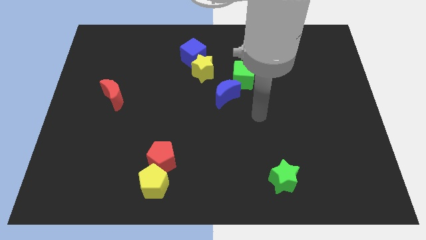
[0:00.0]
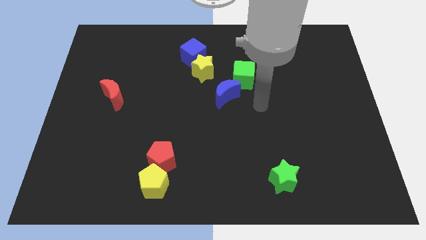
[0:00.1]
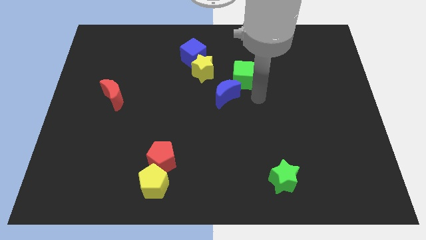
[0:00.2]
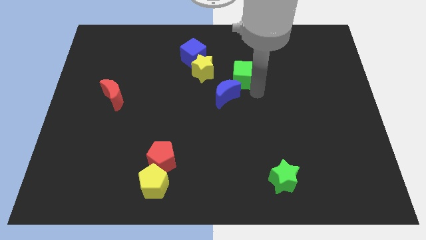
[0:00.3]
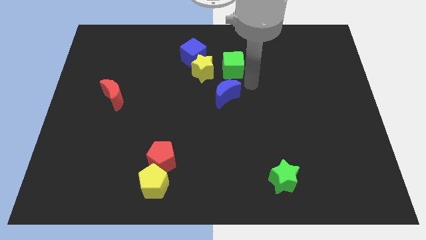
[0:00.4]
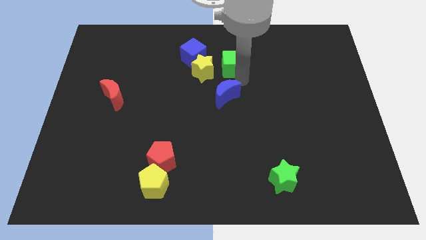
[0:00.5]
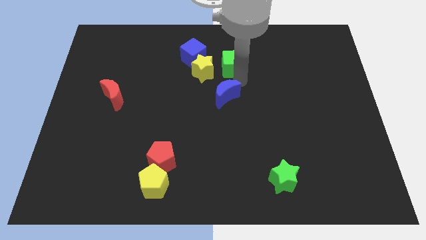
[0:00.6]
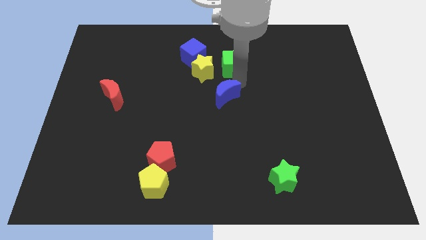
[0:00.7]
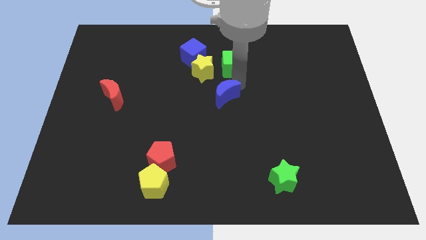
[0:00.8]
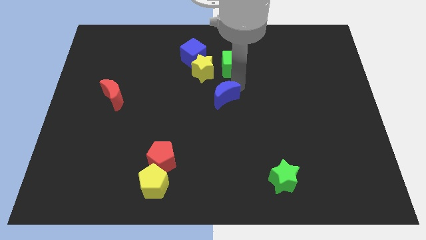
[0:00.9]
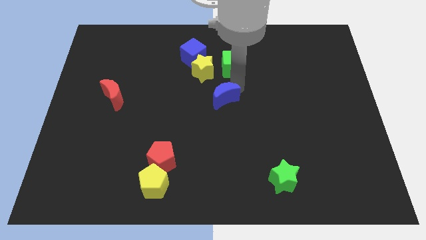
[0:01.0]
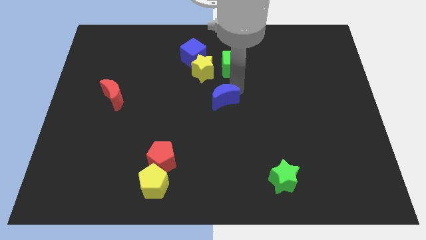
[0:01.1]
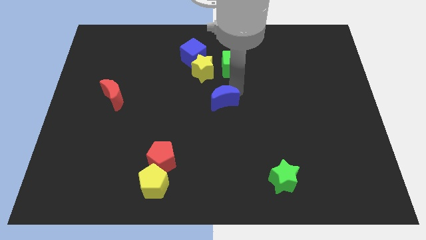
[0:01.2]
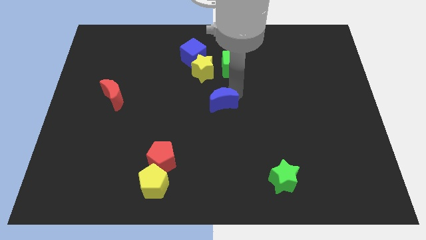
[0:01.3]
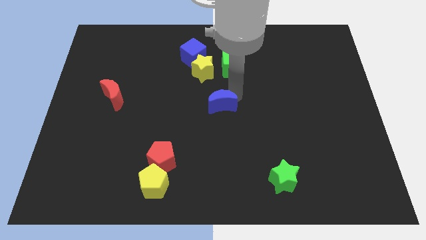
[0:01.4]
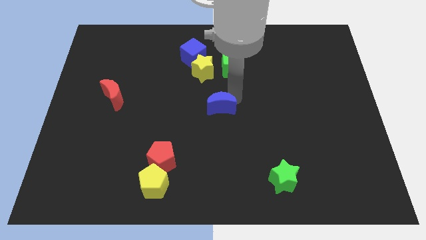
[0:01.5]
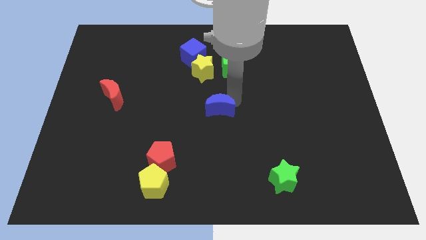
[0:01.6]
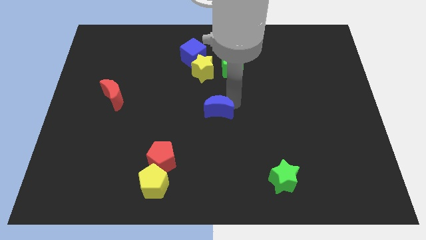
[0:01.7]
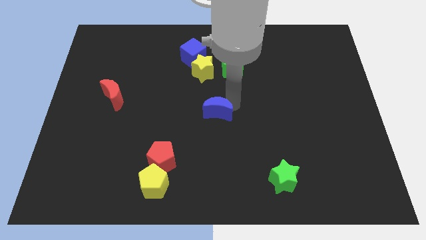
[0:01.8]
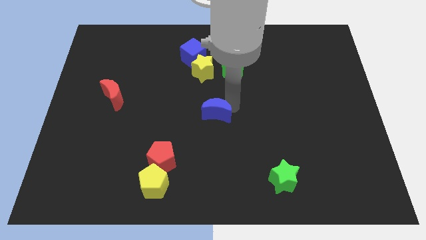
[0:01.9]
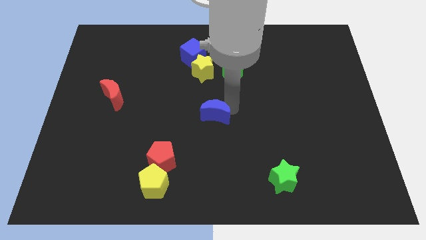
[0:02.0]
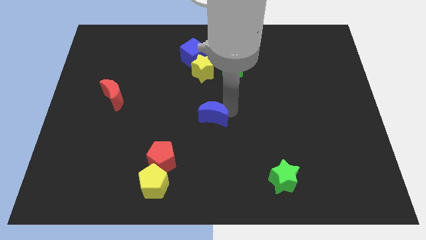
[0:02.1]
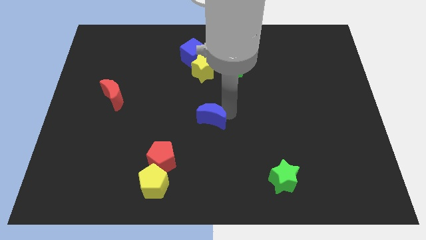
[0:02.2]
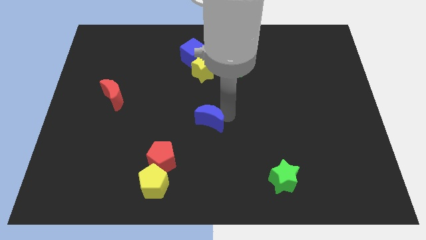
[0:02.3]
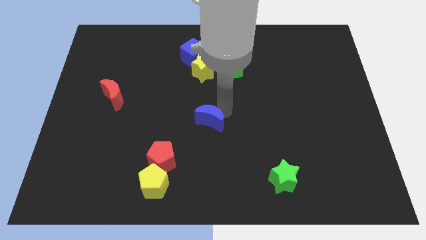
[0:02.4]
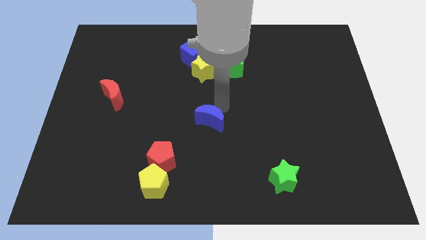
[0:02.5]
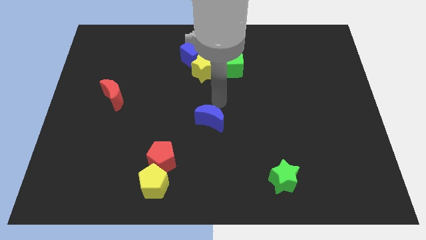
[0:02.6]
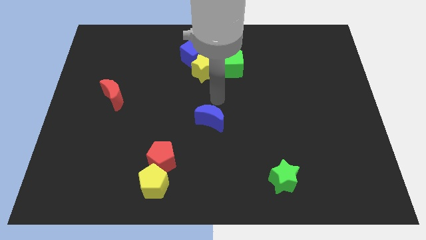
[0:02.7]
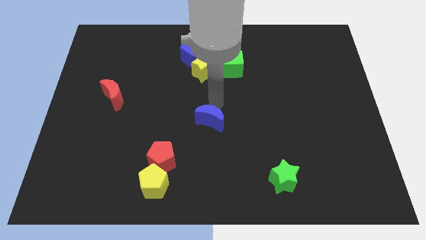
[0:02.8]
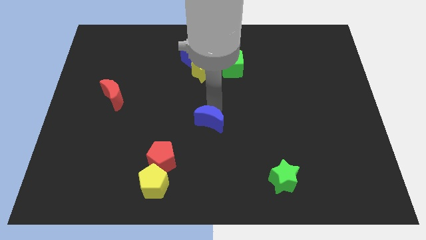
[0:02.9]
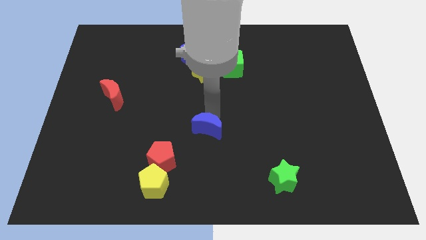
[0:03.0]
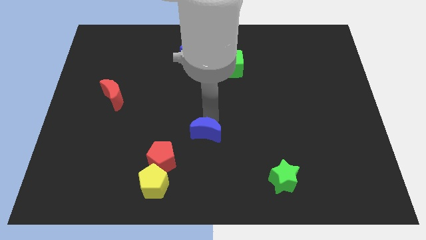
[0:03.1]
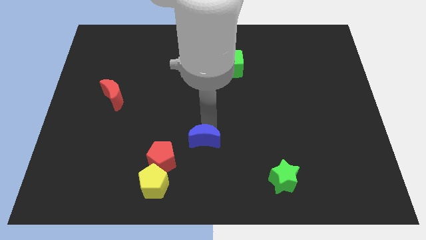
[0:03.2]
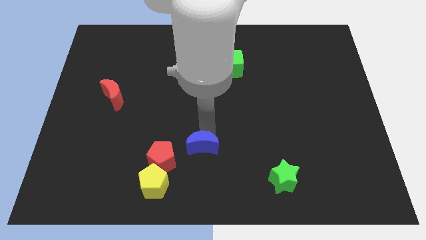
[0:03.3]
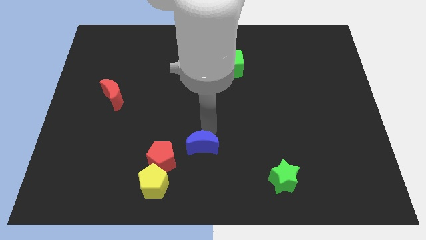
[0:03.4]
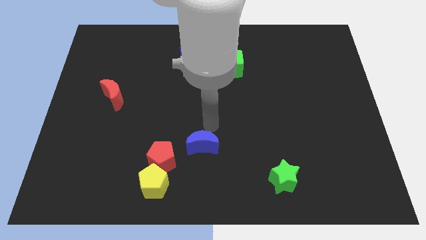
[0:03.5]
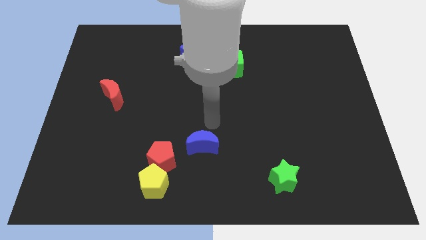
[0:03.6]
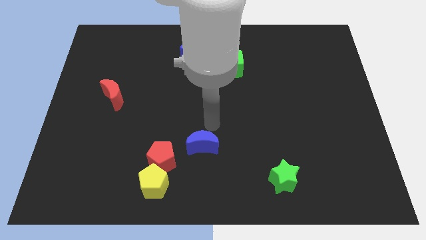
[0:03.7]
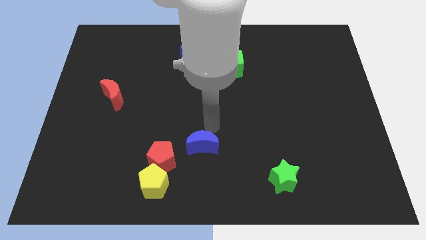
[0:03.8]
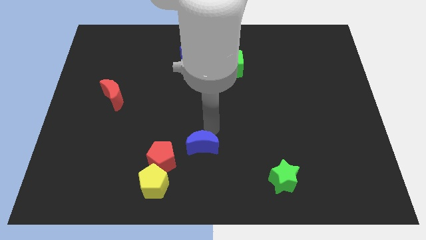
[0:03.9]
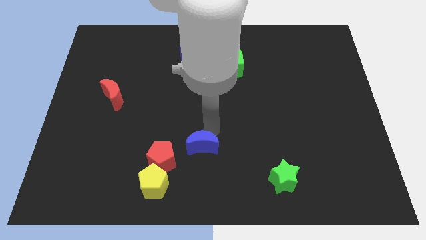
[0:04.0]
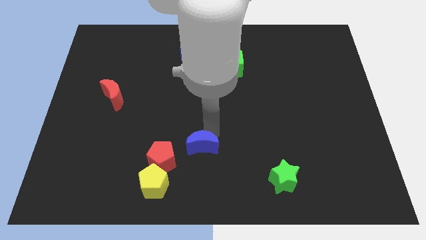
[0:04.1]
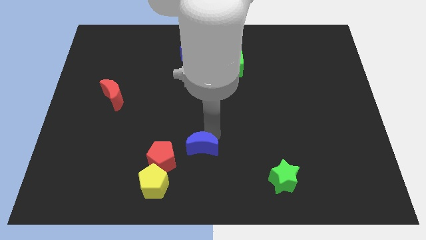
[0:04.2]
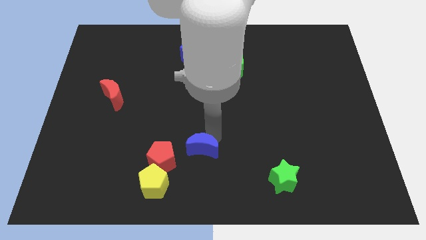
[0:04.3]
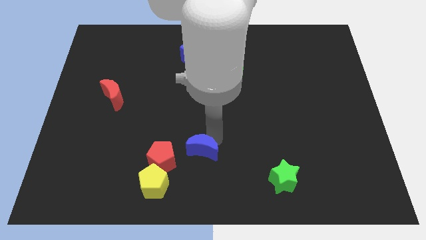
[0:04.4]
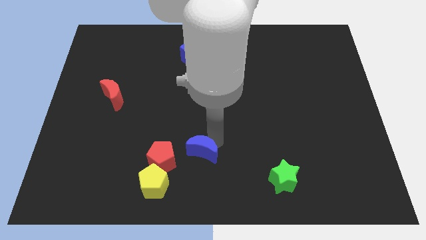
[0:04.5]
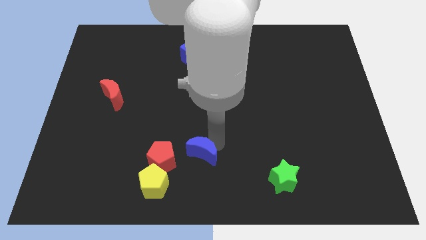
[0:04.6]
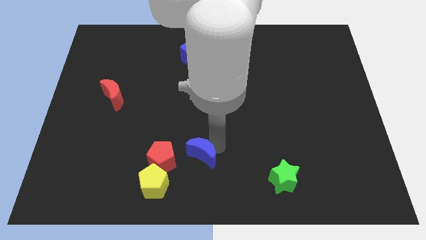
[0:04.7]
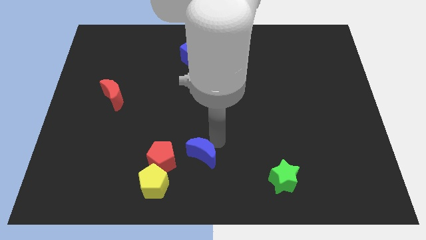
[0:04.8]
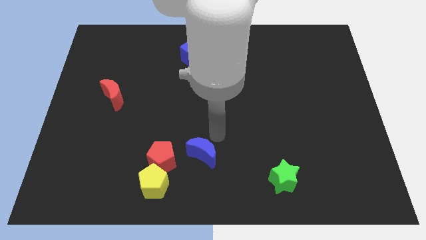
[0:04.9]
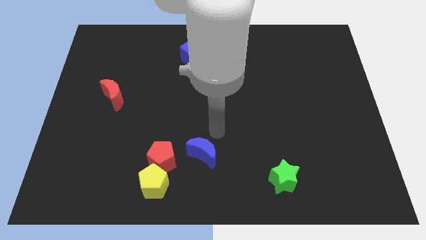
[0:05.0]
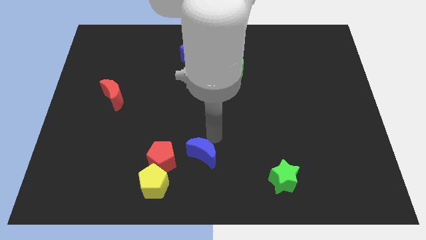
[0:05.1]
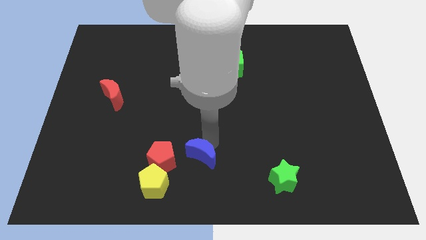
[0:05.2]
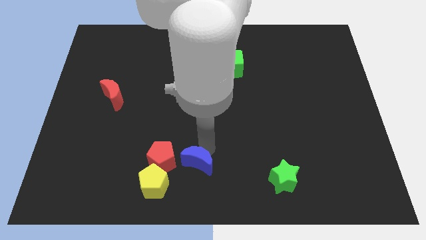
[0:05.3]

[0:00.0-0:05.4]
put the blue moon to the bottom right side of the red pentagon
